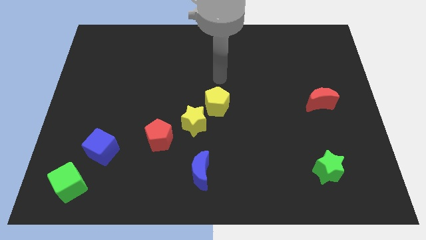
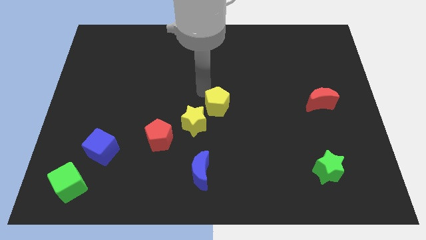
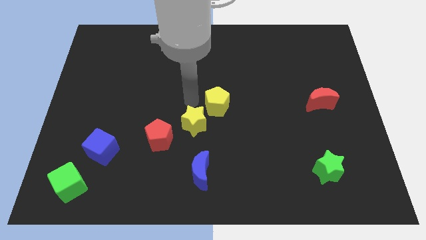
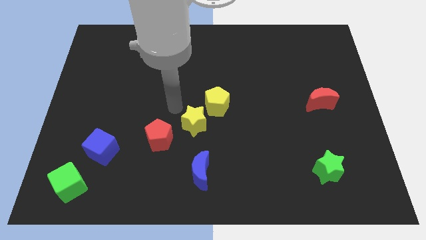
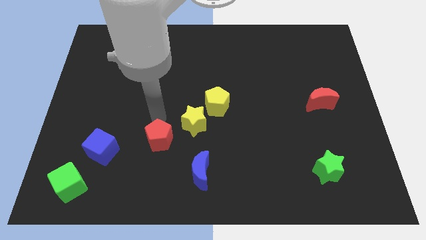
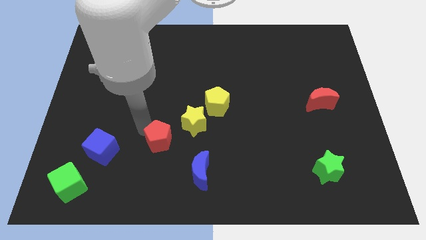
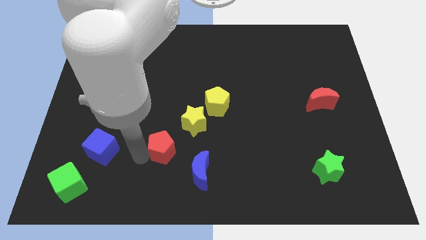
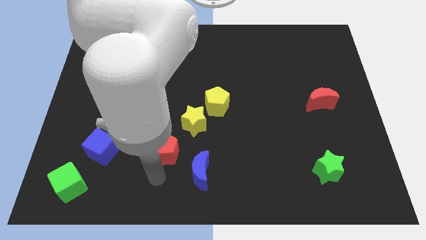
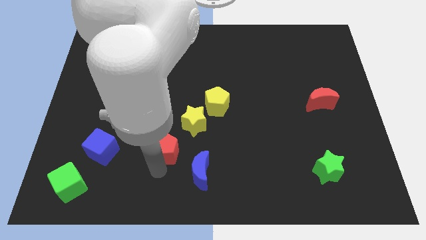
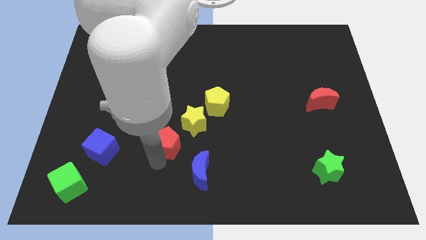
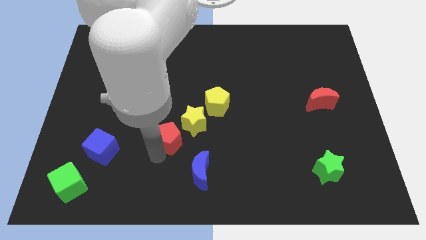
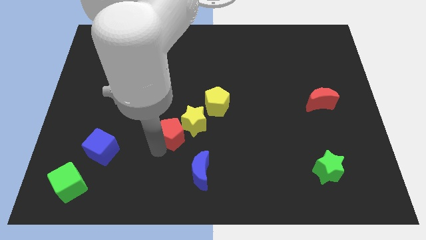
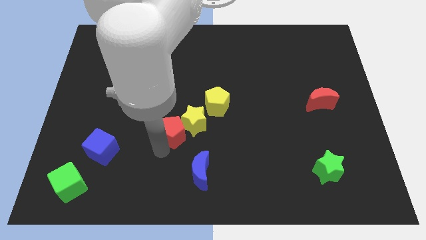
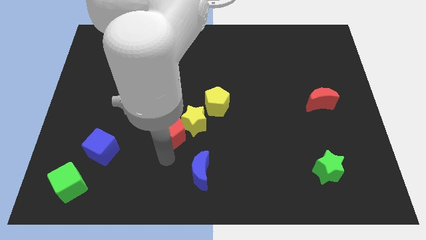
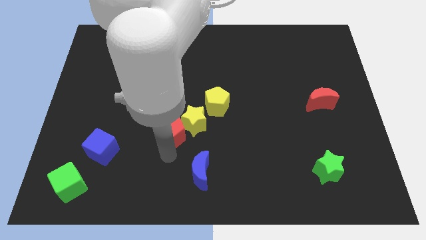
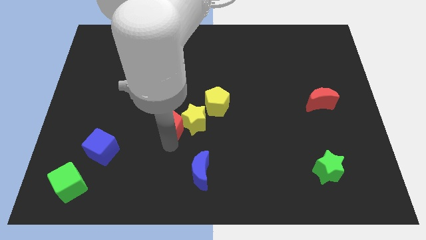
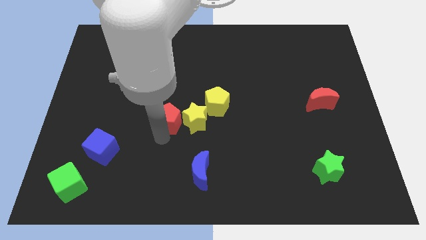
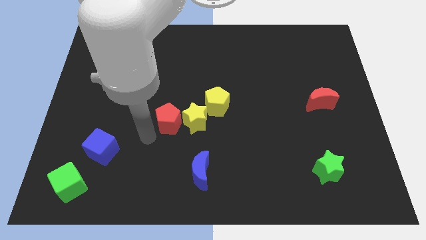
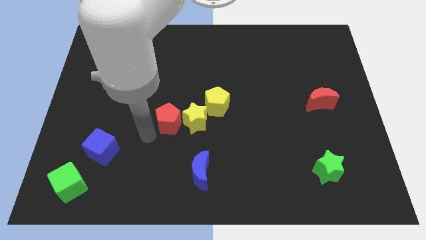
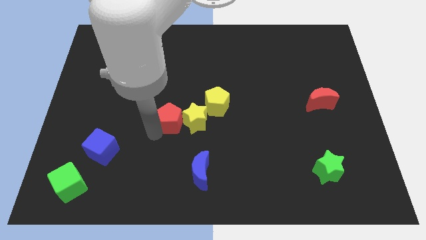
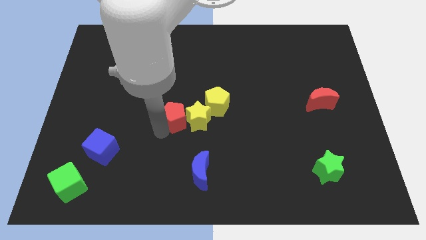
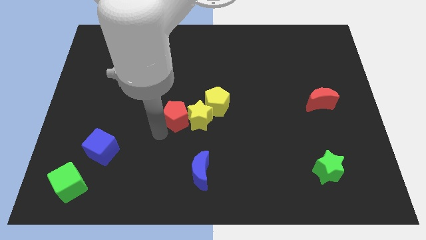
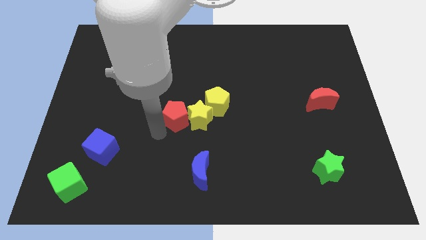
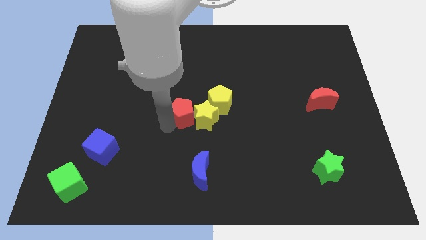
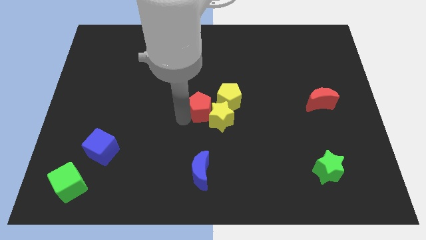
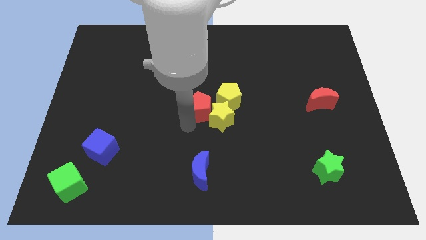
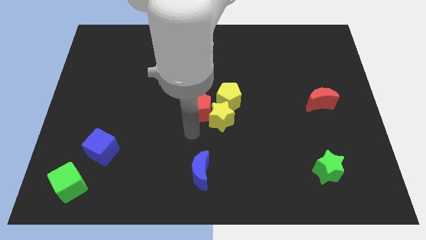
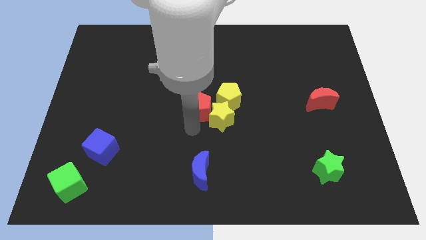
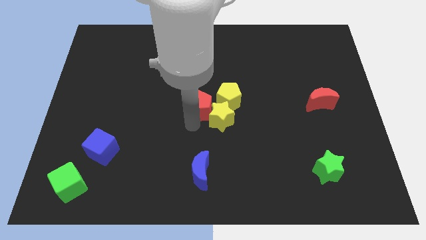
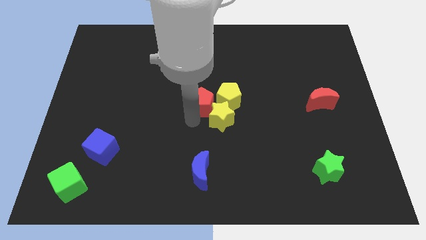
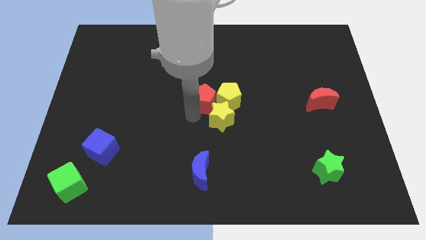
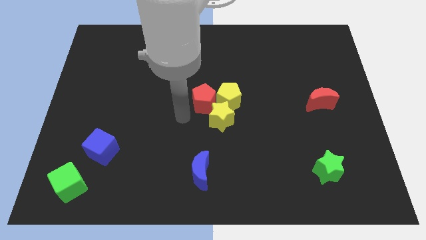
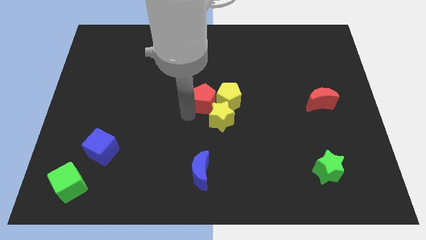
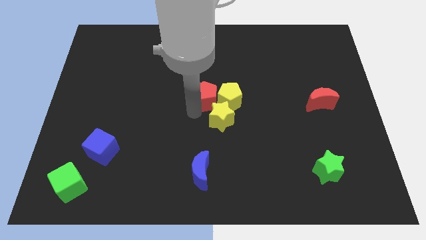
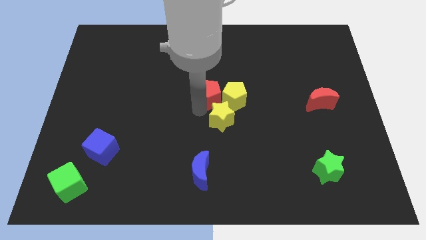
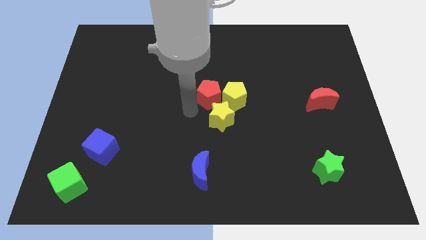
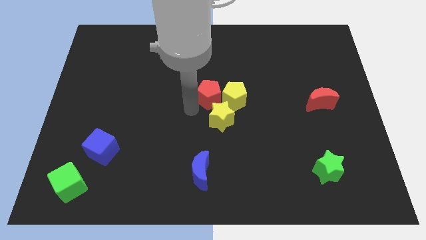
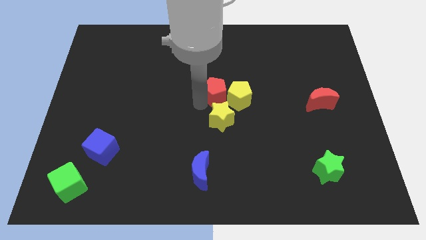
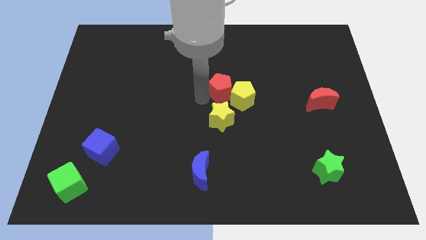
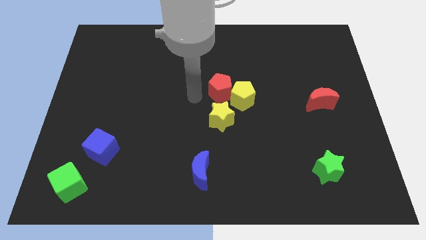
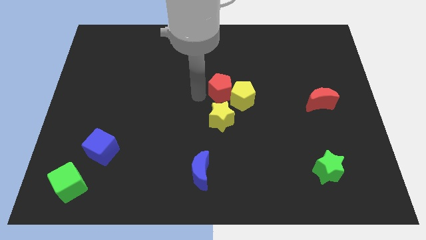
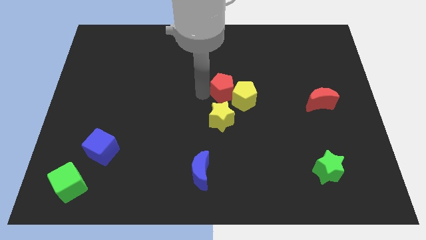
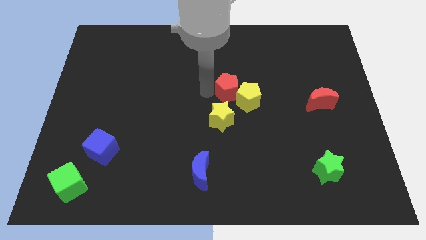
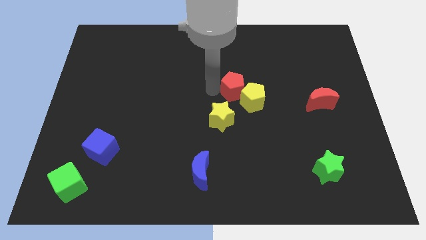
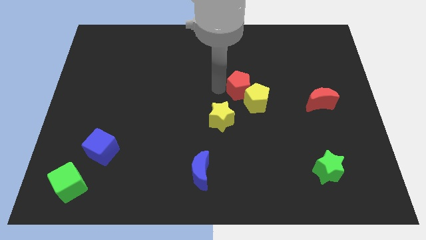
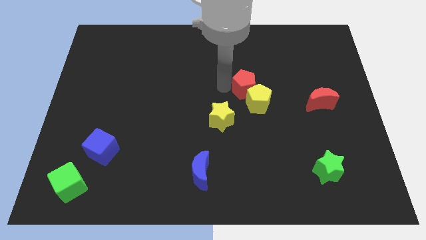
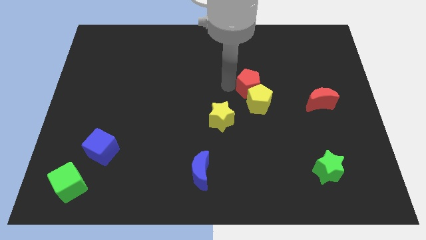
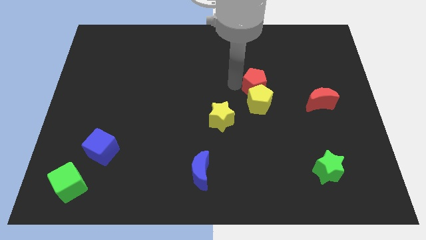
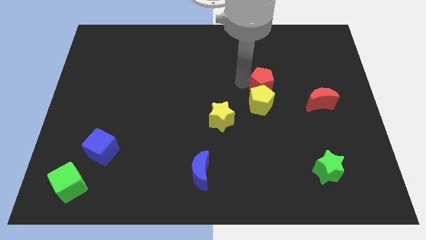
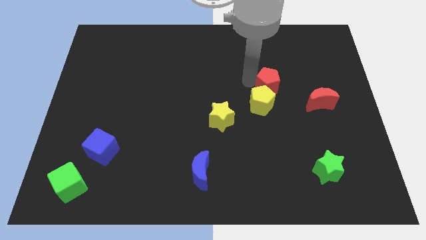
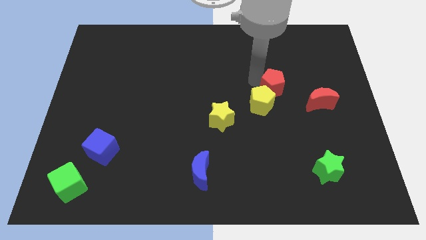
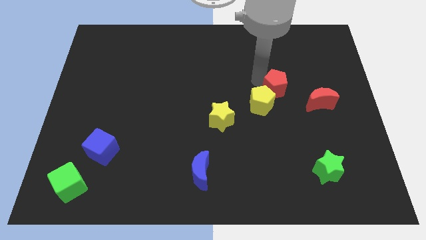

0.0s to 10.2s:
move the red pentagon diagonally up and to the left of the red moon

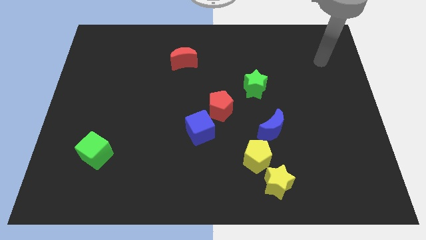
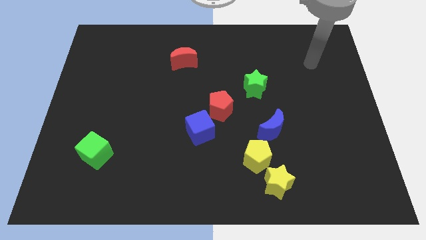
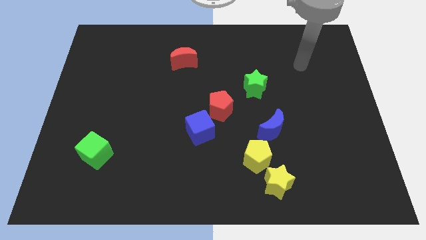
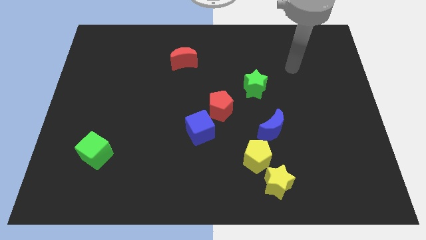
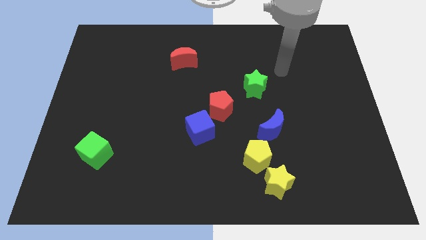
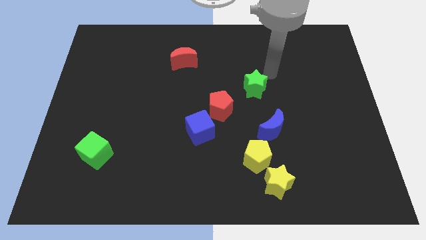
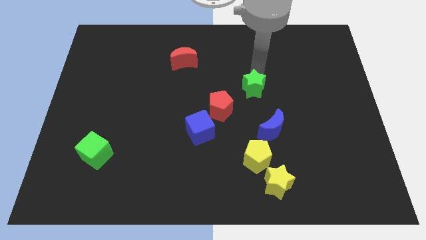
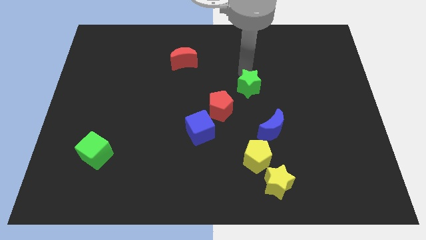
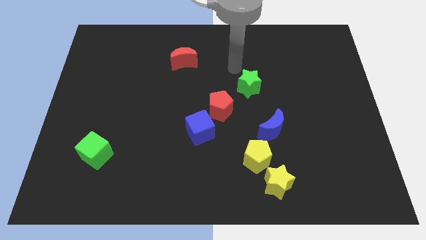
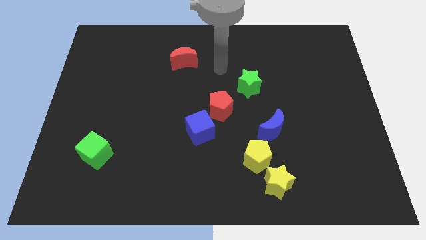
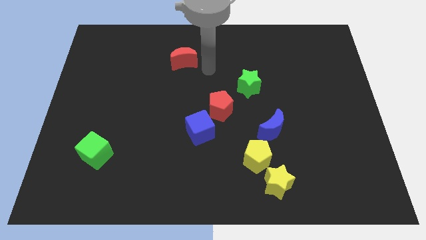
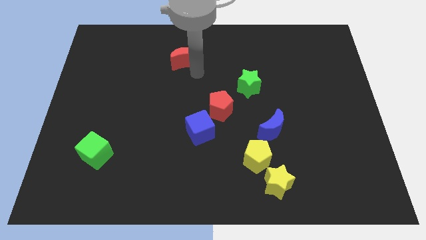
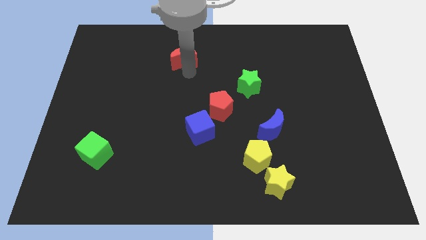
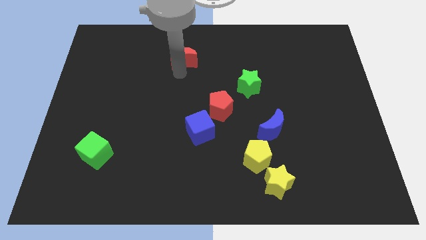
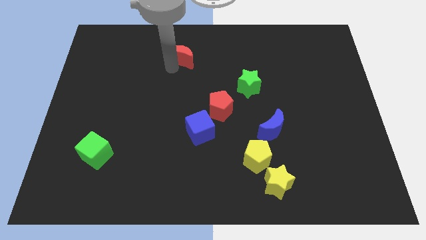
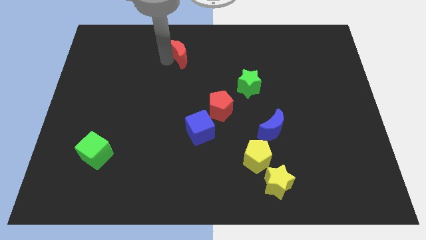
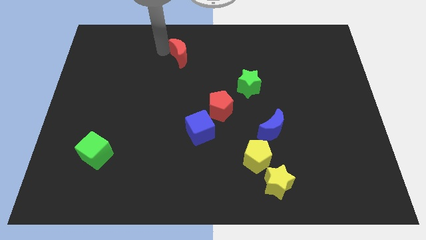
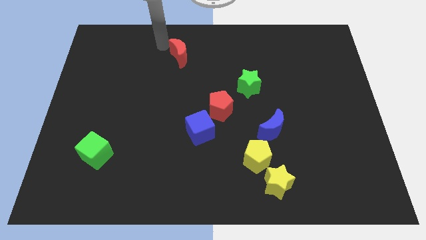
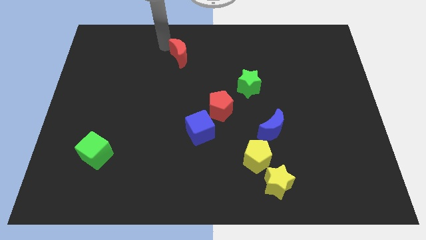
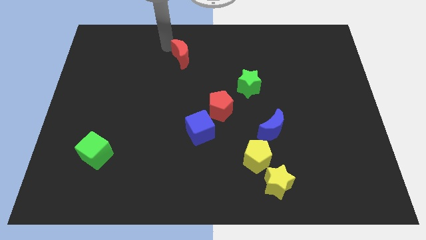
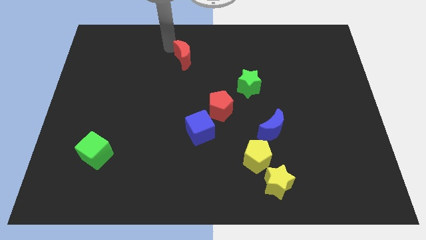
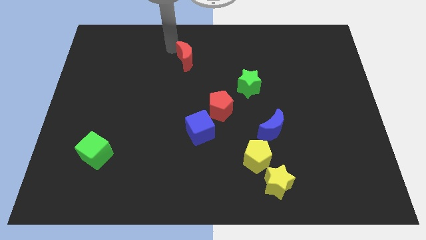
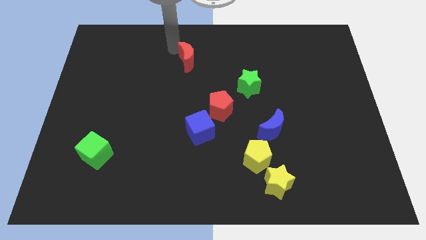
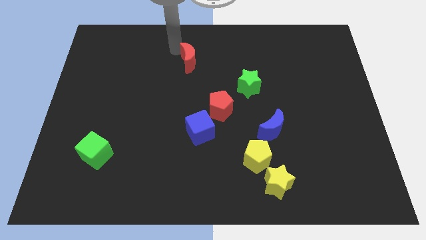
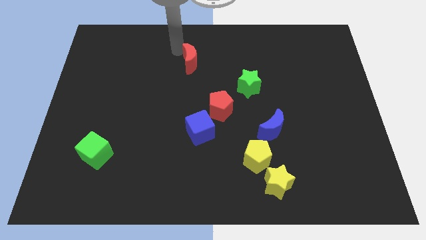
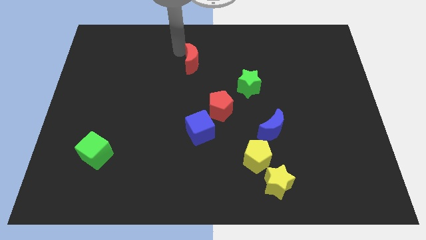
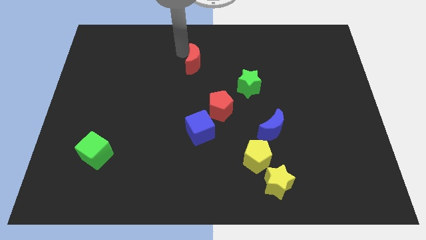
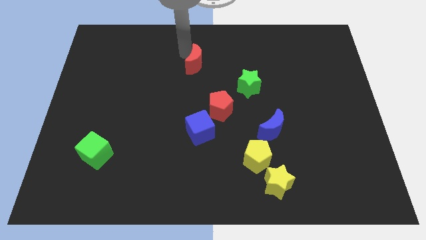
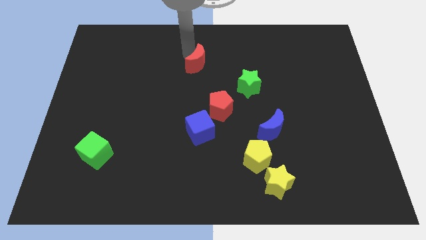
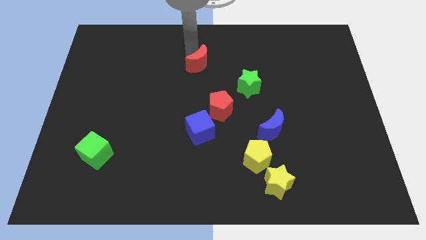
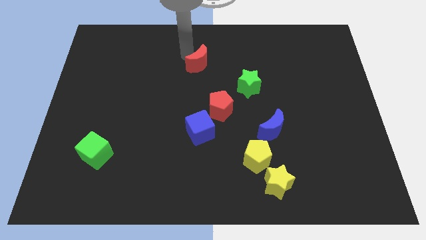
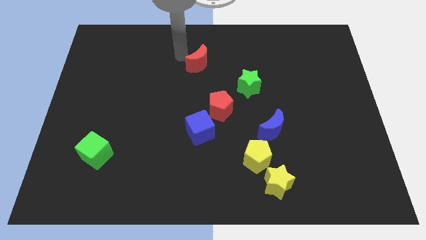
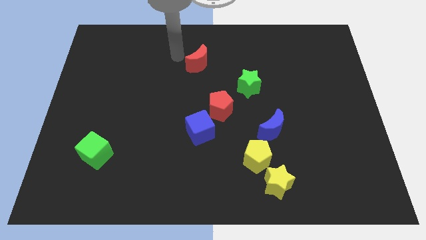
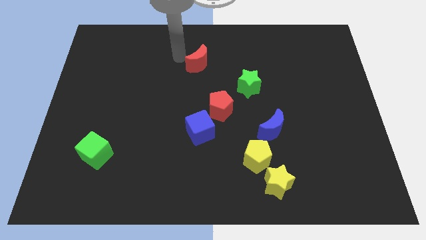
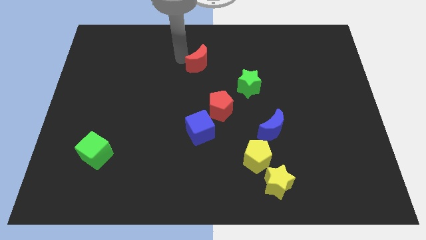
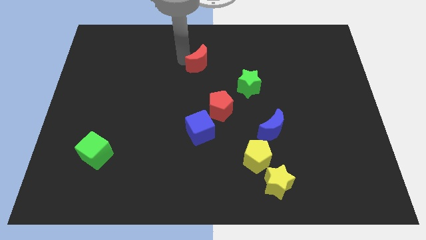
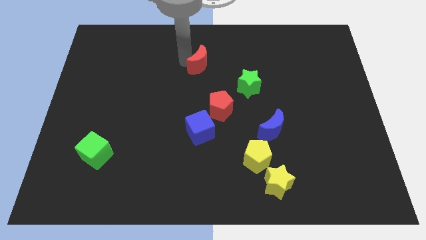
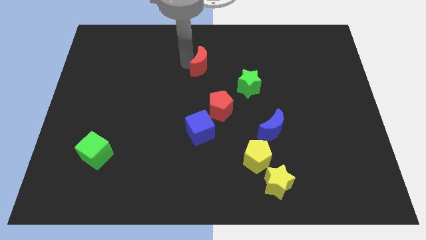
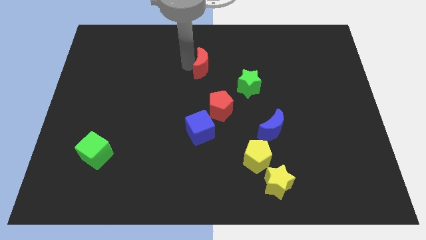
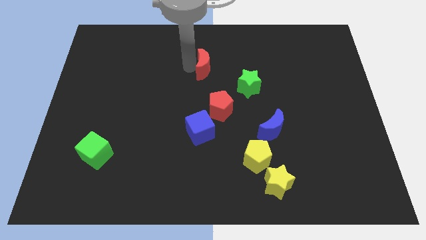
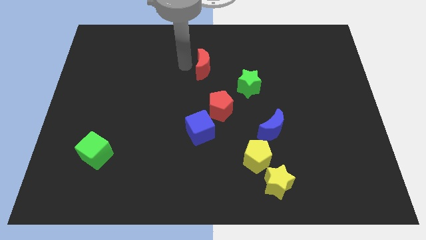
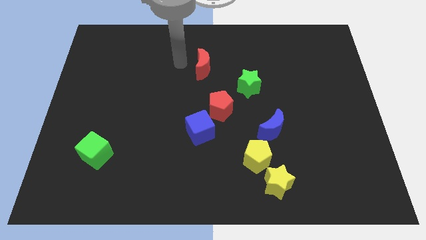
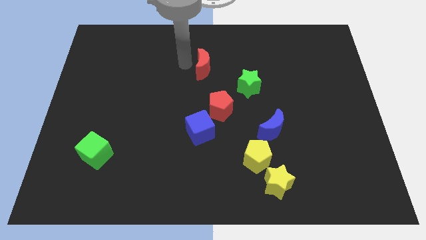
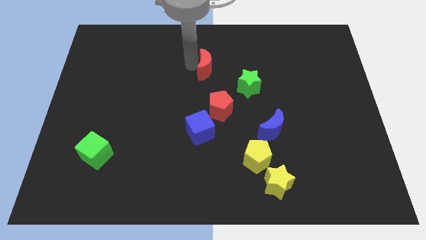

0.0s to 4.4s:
move the red moon diagonally up and to the left of the green star
